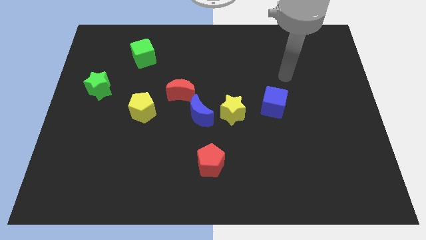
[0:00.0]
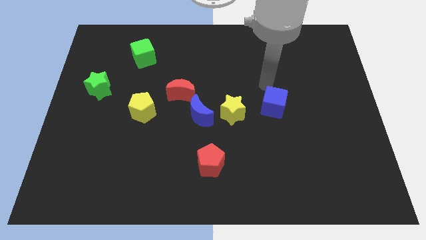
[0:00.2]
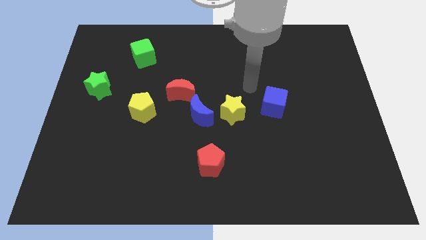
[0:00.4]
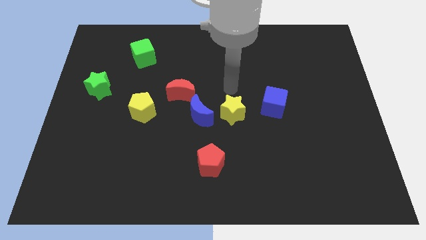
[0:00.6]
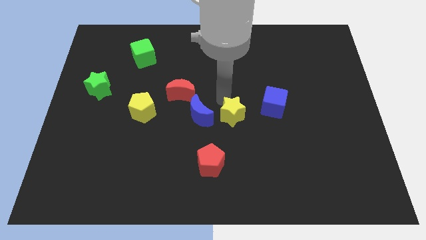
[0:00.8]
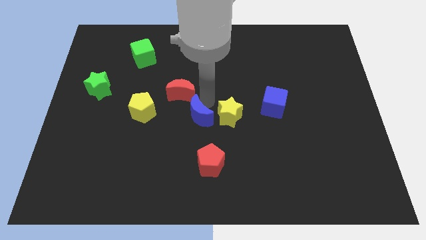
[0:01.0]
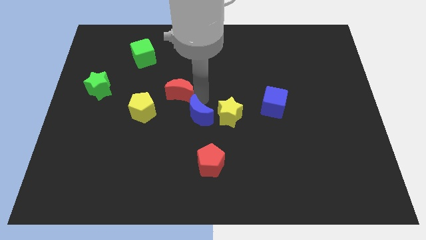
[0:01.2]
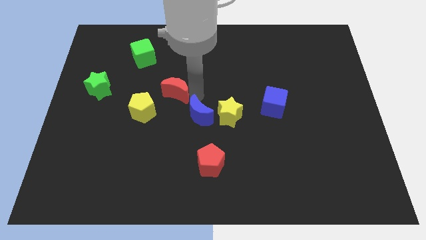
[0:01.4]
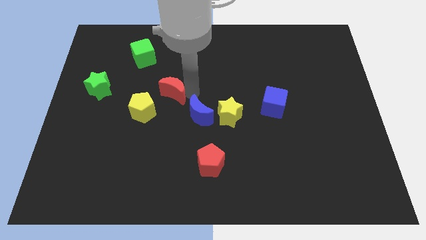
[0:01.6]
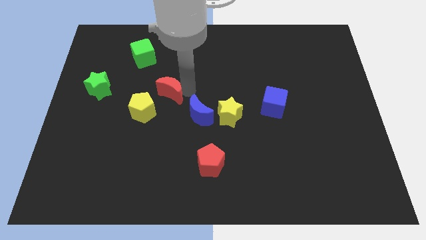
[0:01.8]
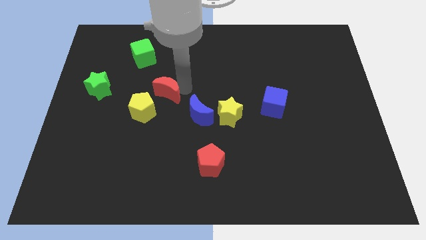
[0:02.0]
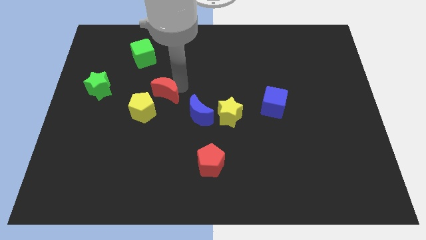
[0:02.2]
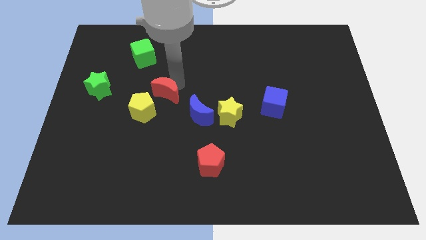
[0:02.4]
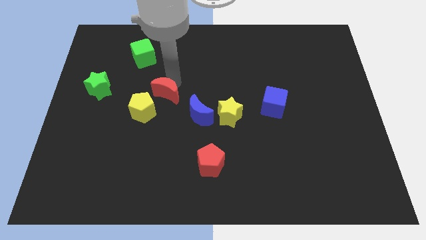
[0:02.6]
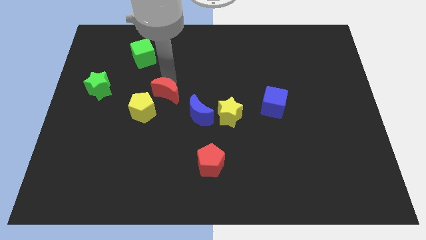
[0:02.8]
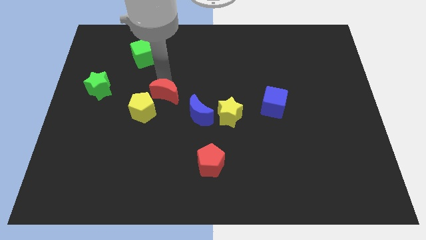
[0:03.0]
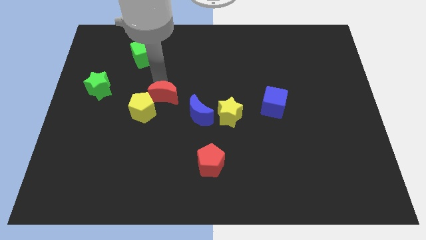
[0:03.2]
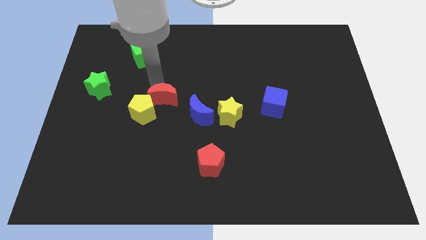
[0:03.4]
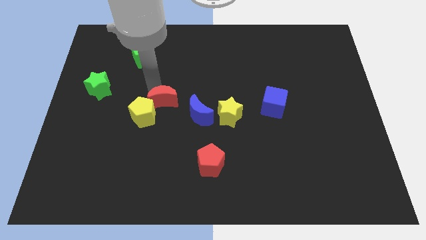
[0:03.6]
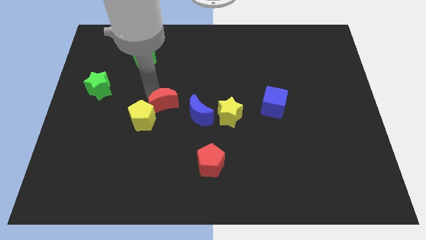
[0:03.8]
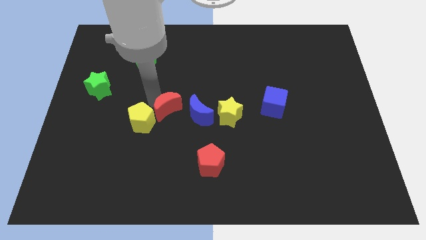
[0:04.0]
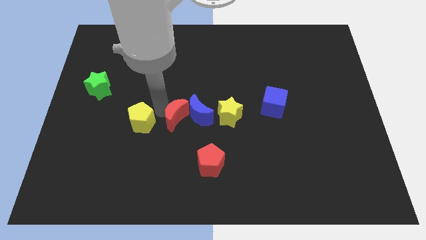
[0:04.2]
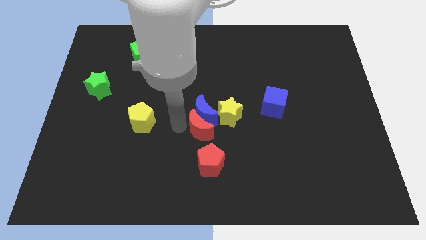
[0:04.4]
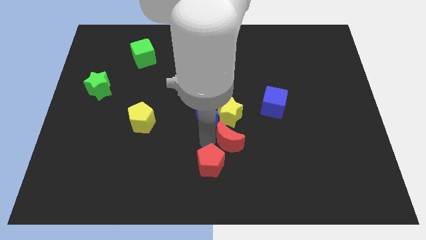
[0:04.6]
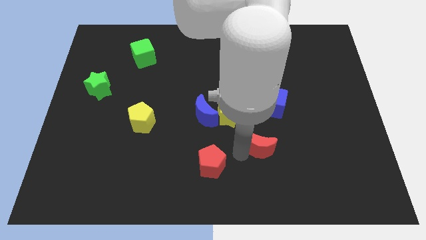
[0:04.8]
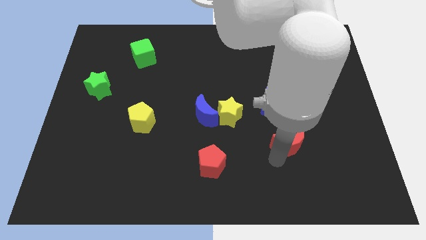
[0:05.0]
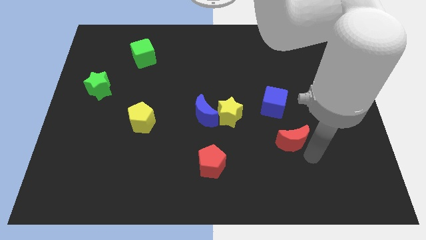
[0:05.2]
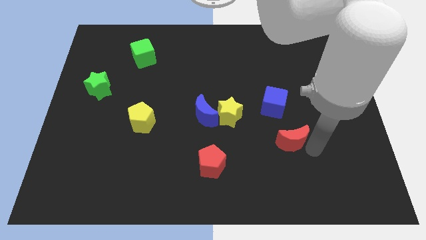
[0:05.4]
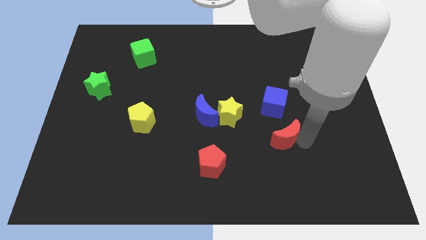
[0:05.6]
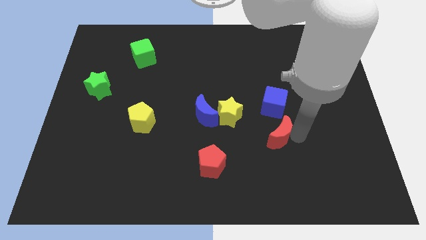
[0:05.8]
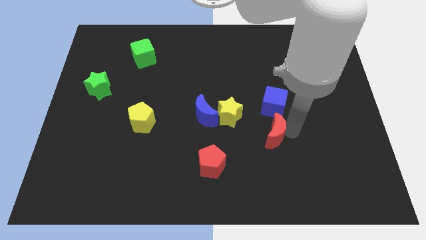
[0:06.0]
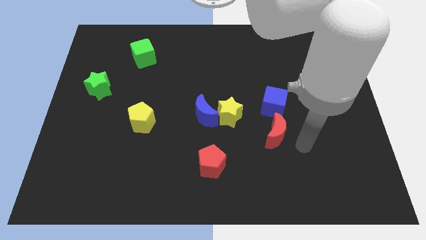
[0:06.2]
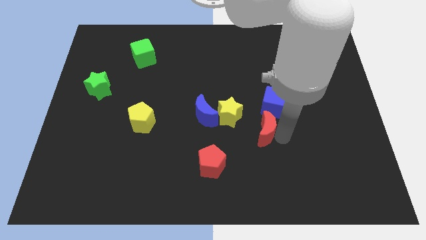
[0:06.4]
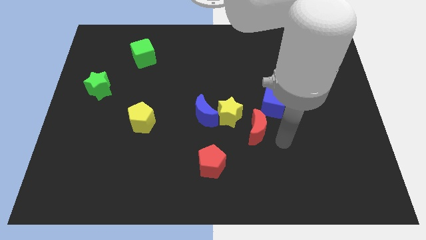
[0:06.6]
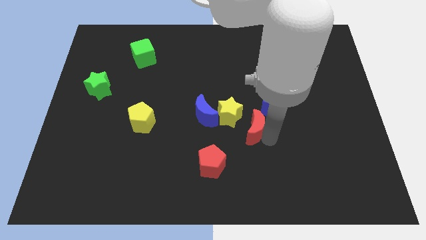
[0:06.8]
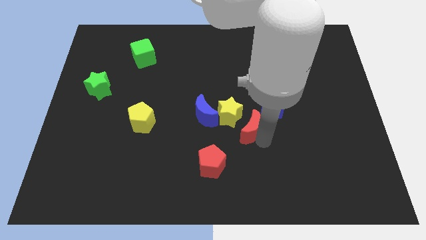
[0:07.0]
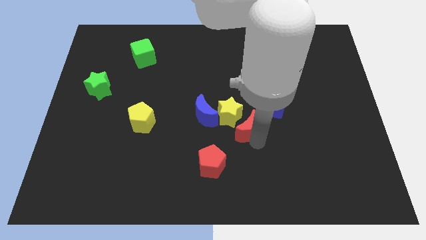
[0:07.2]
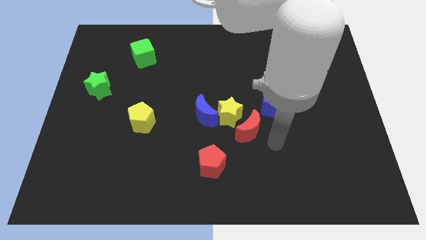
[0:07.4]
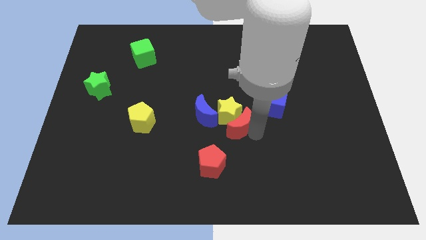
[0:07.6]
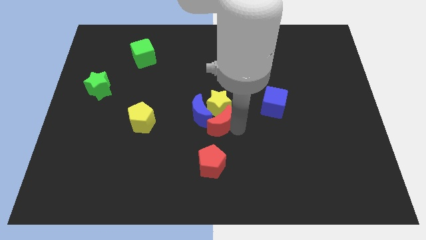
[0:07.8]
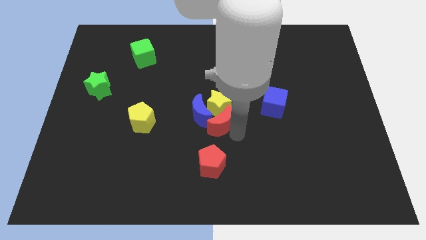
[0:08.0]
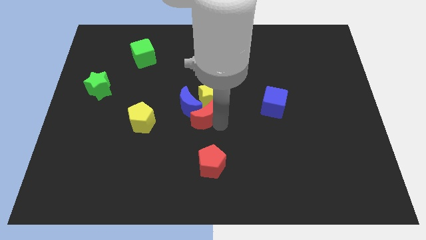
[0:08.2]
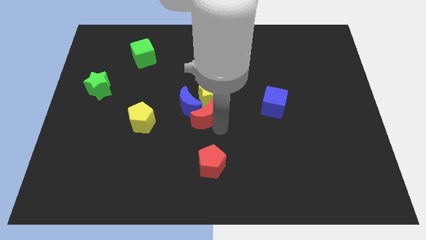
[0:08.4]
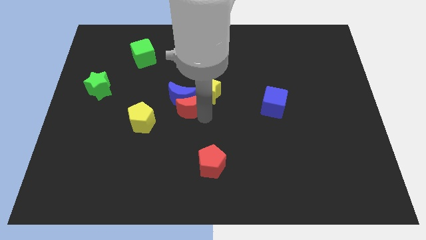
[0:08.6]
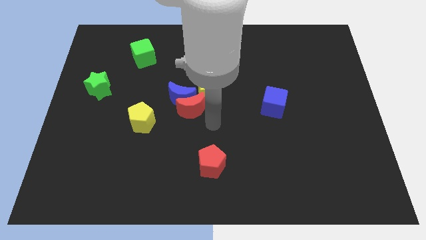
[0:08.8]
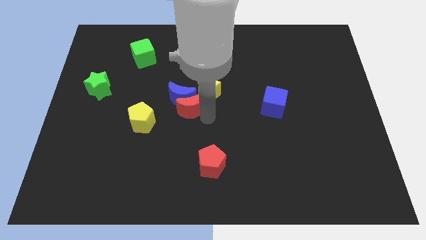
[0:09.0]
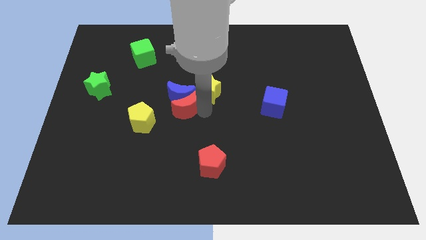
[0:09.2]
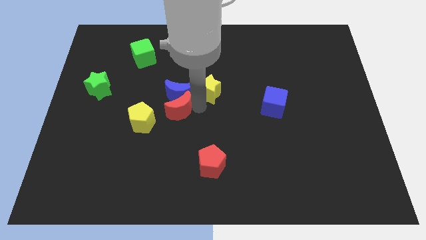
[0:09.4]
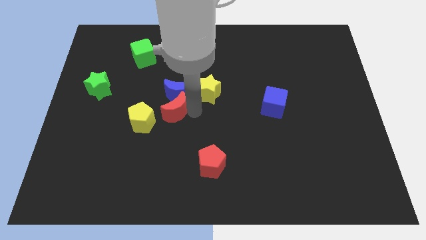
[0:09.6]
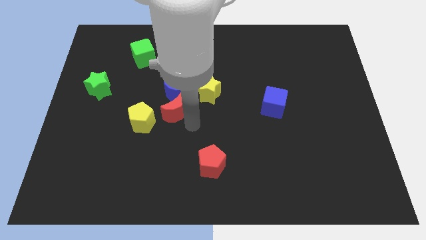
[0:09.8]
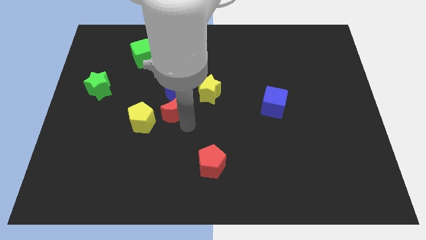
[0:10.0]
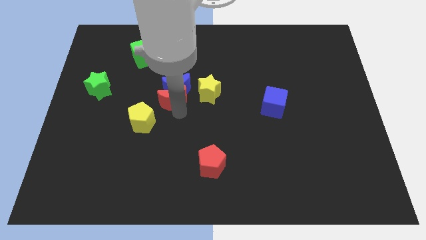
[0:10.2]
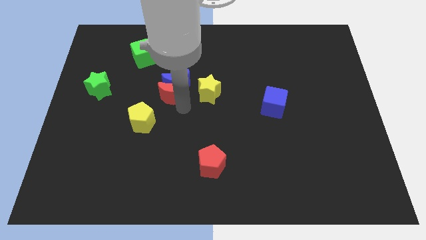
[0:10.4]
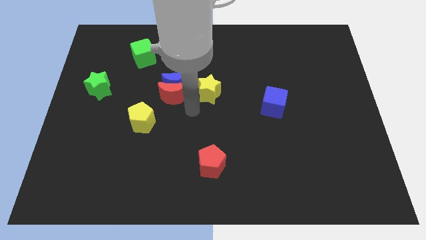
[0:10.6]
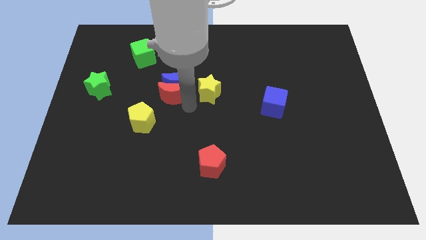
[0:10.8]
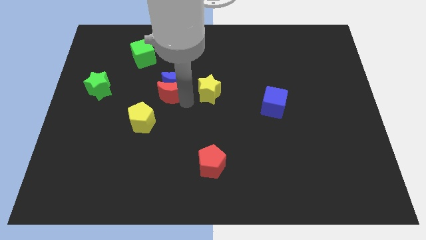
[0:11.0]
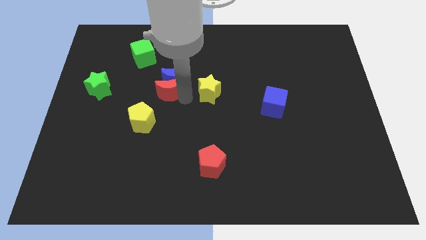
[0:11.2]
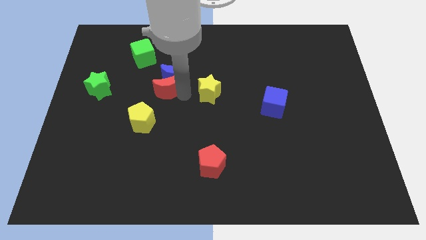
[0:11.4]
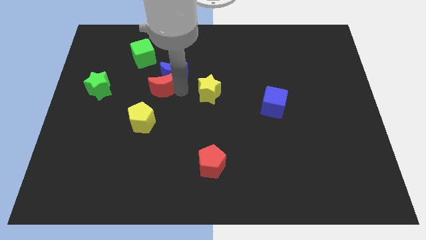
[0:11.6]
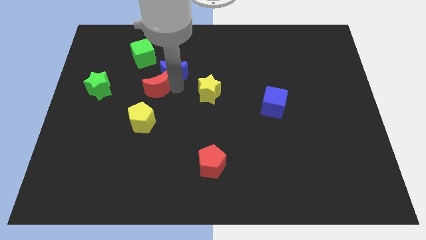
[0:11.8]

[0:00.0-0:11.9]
slide the red moon to the bottom of the green cube

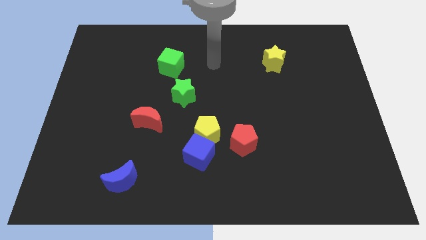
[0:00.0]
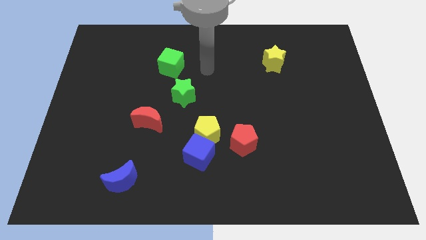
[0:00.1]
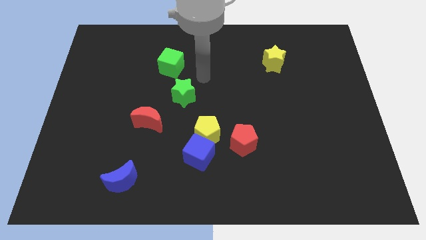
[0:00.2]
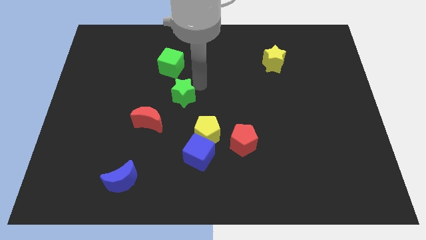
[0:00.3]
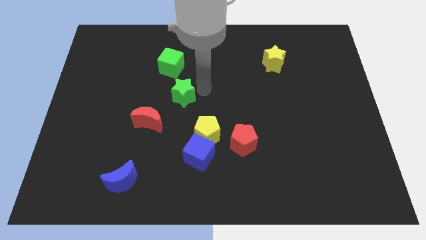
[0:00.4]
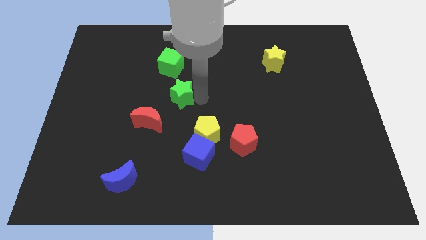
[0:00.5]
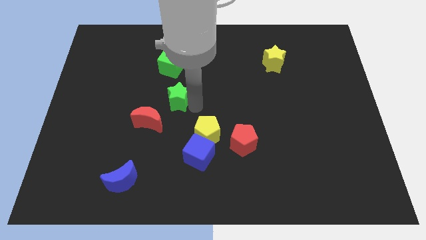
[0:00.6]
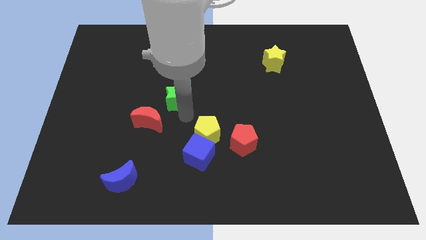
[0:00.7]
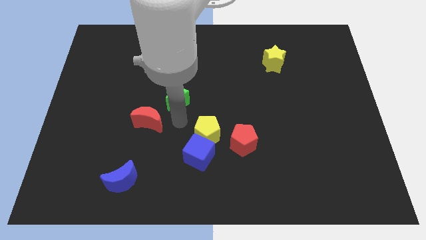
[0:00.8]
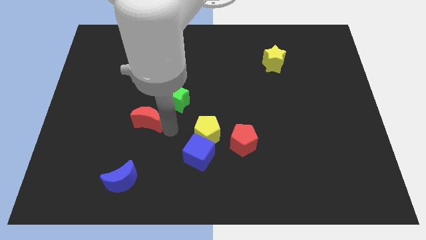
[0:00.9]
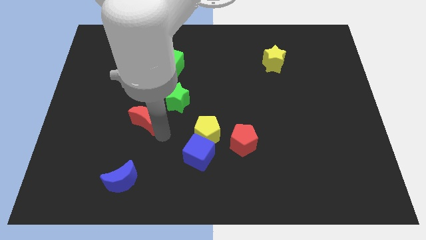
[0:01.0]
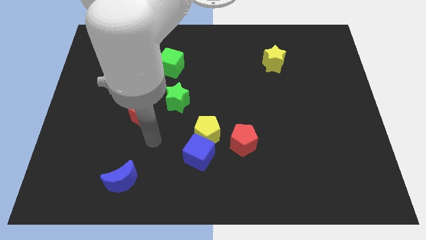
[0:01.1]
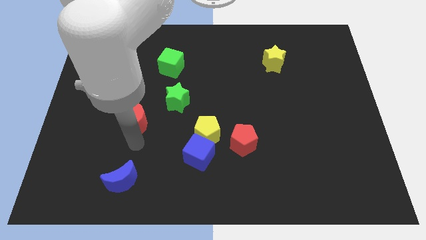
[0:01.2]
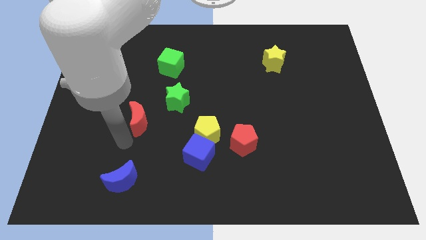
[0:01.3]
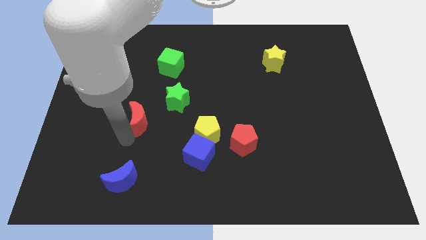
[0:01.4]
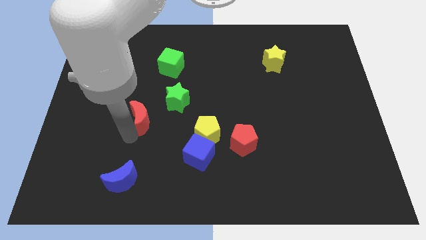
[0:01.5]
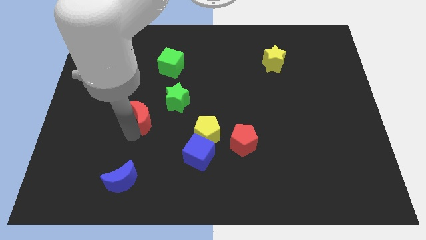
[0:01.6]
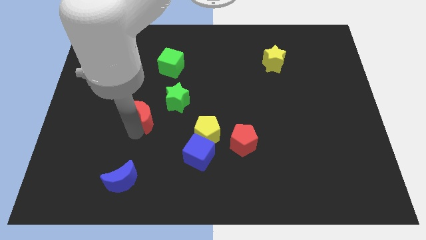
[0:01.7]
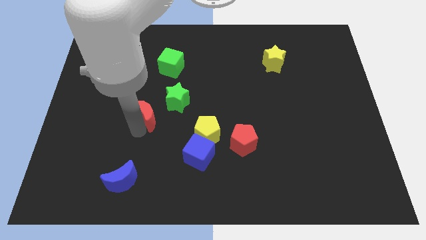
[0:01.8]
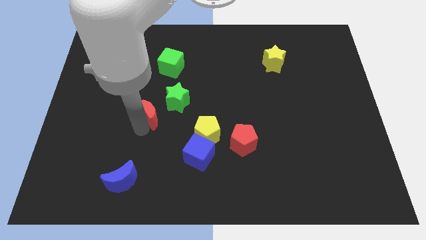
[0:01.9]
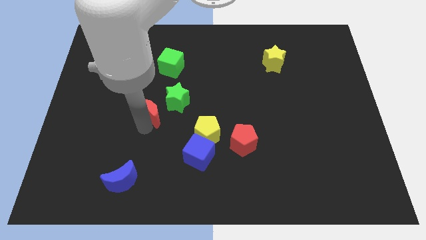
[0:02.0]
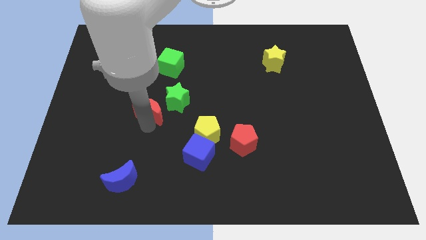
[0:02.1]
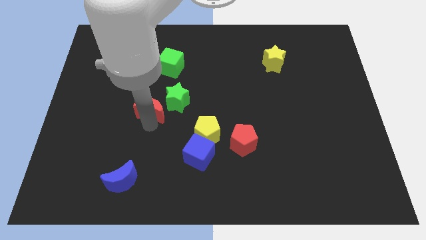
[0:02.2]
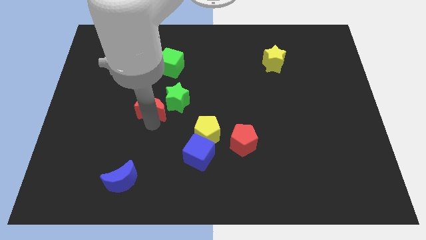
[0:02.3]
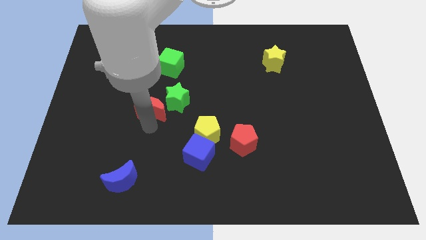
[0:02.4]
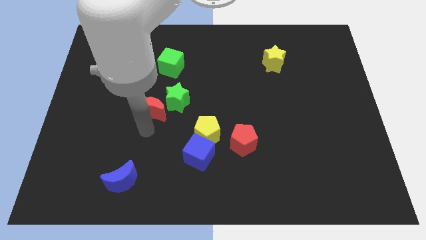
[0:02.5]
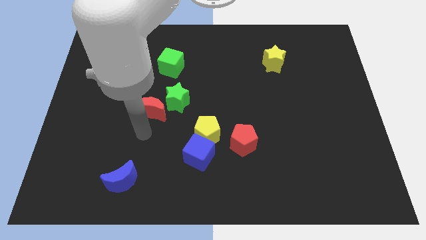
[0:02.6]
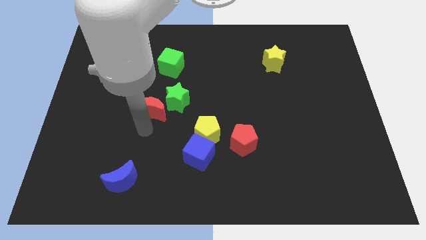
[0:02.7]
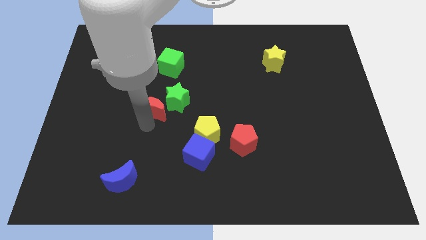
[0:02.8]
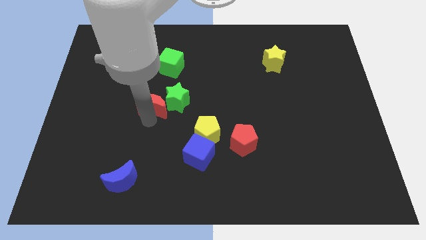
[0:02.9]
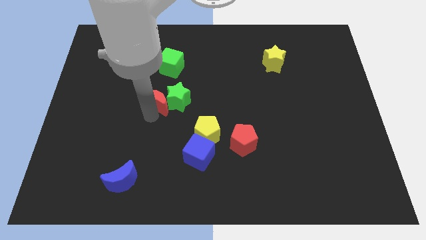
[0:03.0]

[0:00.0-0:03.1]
push the red moon to the top left of the green star
